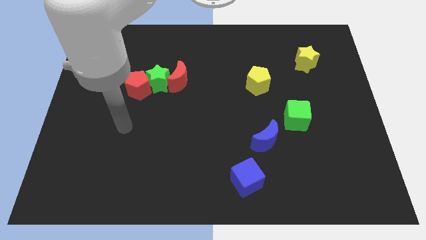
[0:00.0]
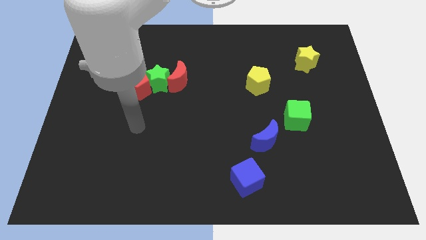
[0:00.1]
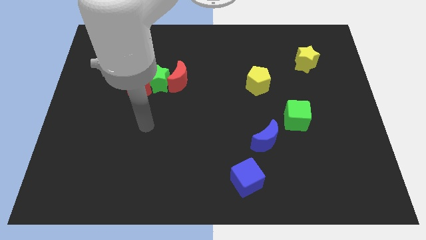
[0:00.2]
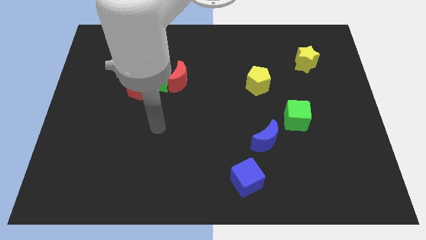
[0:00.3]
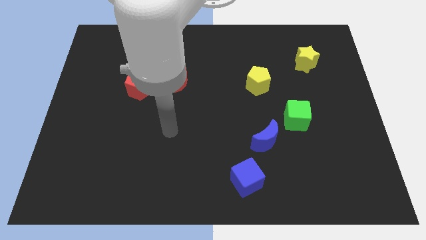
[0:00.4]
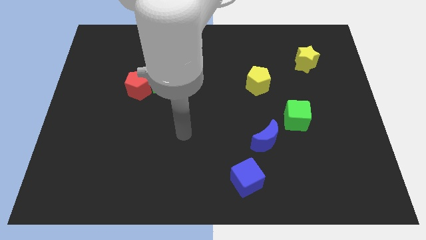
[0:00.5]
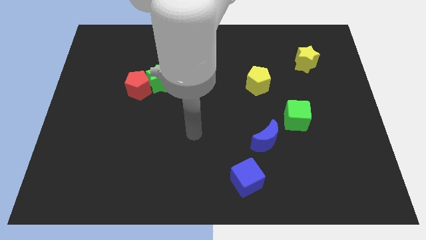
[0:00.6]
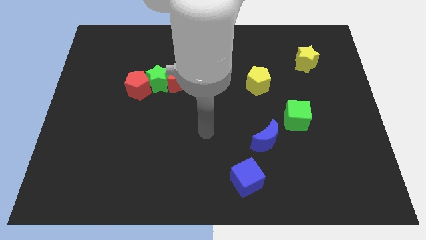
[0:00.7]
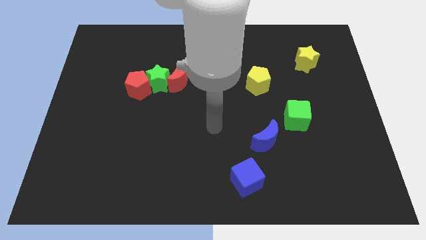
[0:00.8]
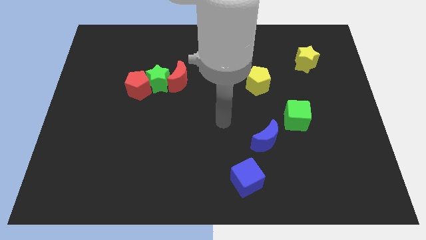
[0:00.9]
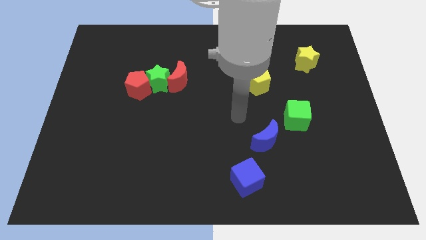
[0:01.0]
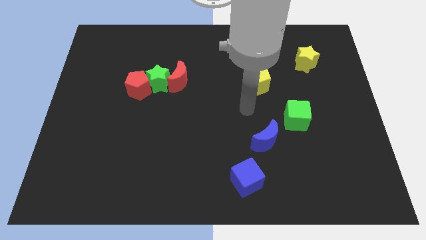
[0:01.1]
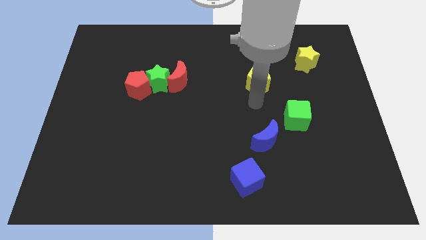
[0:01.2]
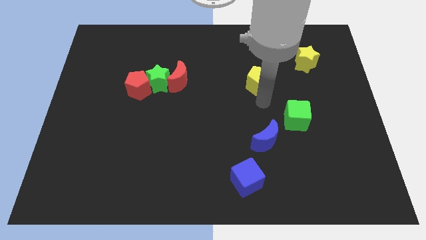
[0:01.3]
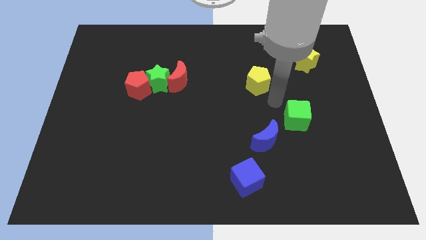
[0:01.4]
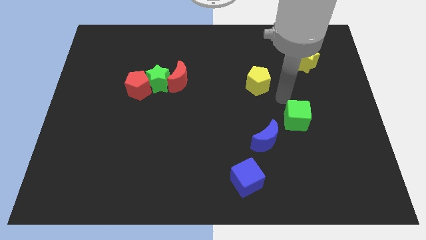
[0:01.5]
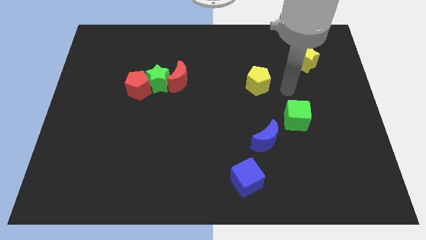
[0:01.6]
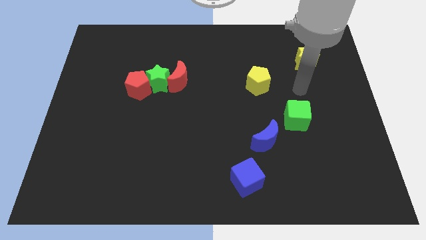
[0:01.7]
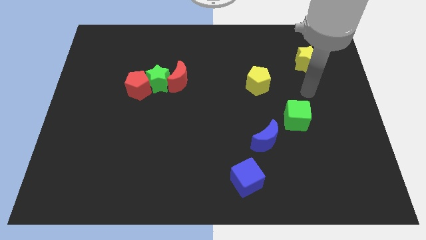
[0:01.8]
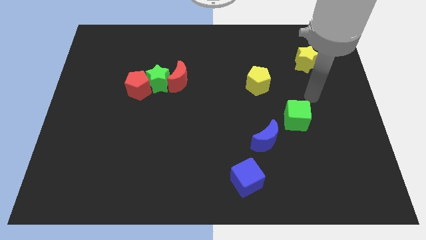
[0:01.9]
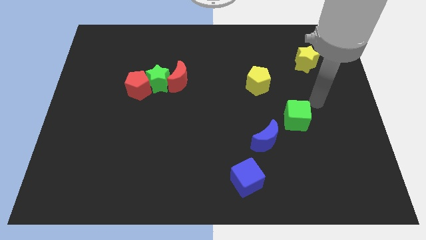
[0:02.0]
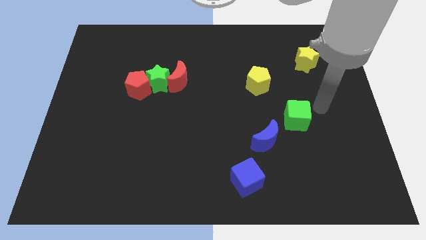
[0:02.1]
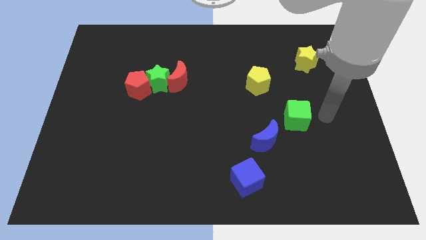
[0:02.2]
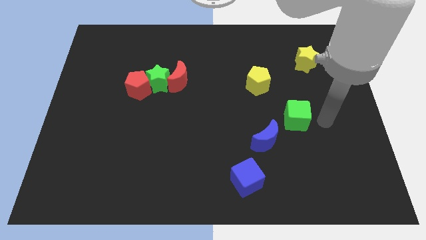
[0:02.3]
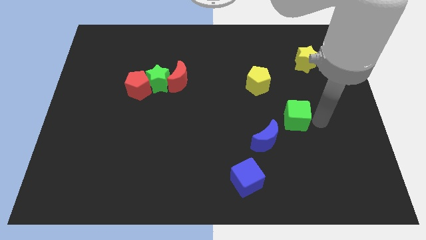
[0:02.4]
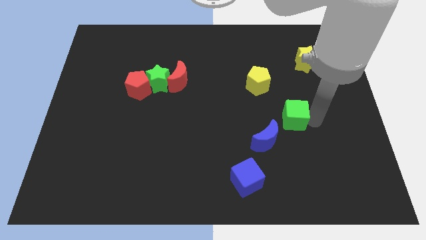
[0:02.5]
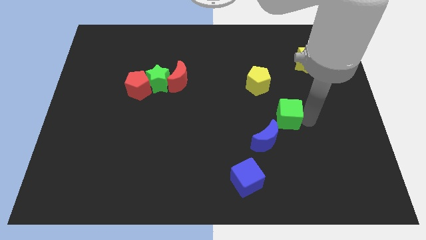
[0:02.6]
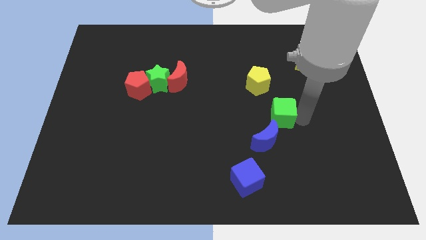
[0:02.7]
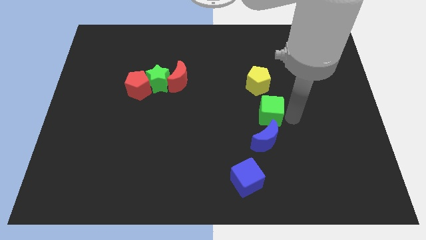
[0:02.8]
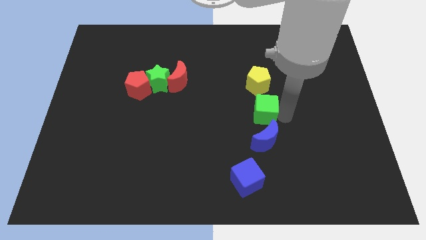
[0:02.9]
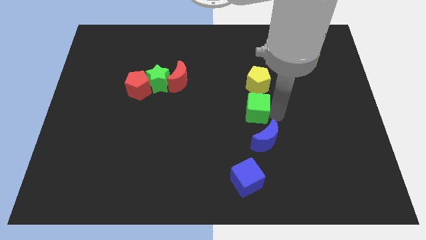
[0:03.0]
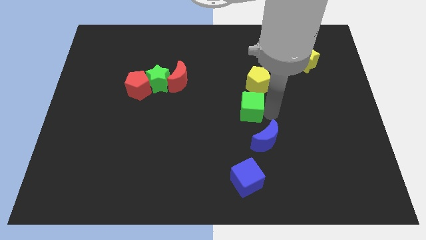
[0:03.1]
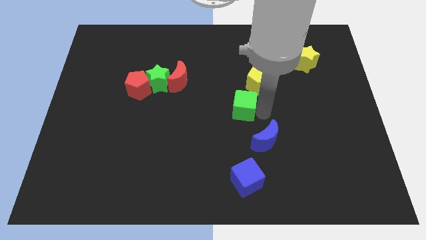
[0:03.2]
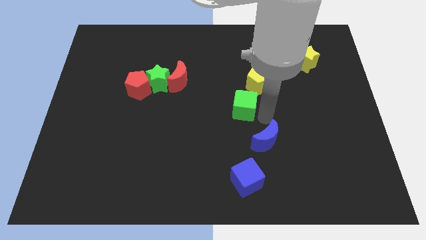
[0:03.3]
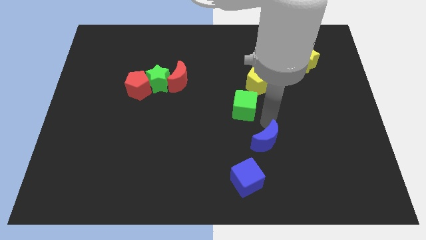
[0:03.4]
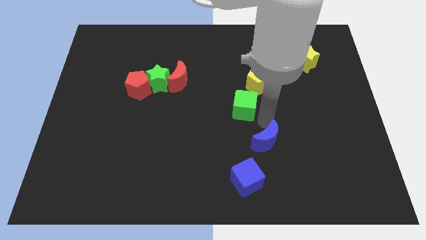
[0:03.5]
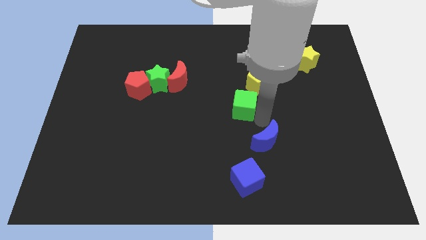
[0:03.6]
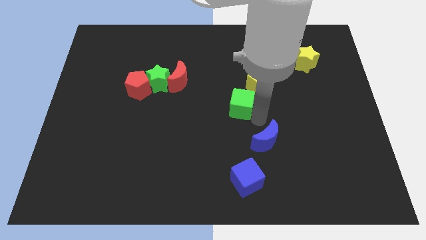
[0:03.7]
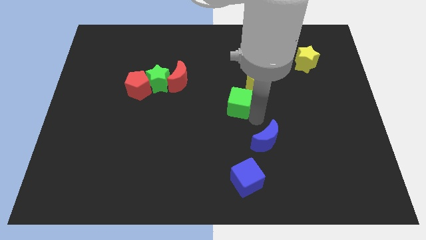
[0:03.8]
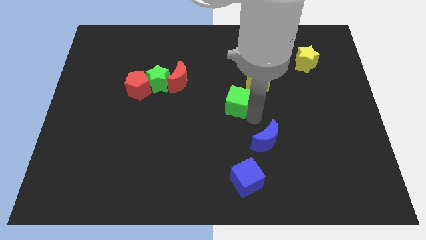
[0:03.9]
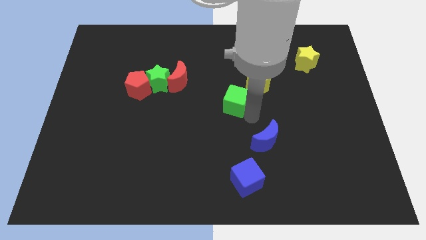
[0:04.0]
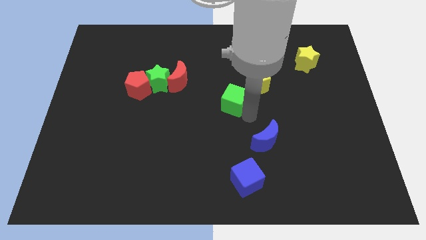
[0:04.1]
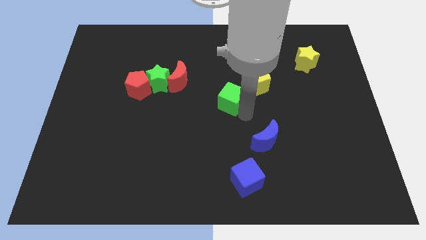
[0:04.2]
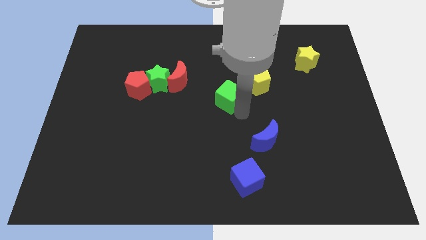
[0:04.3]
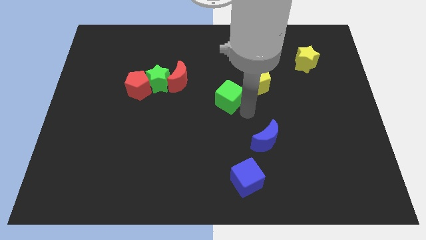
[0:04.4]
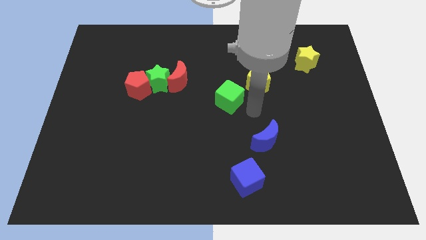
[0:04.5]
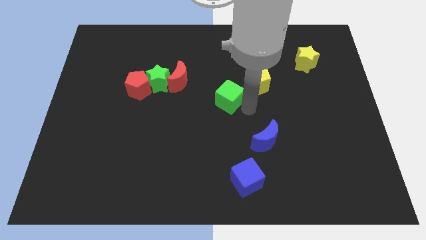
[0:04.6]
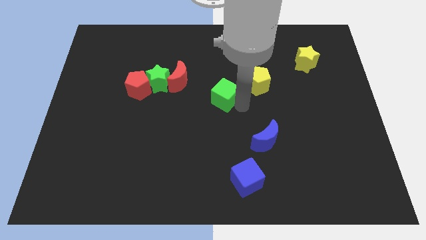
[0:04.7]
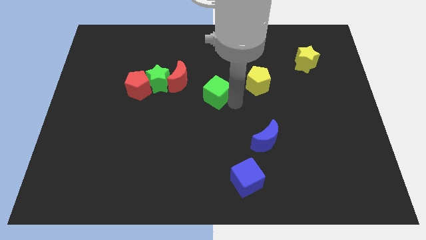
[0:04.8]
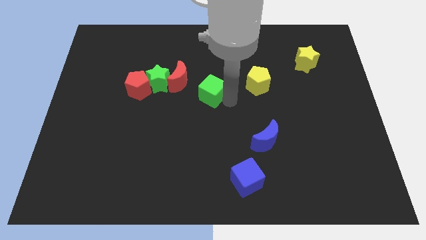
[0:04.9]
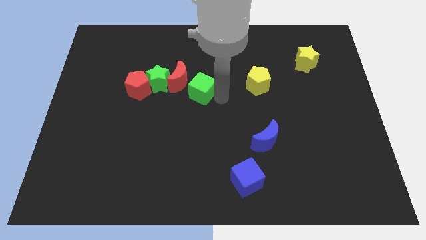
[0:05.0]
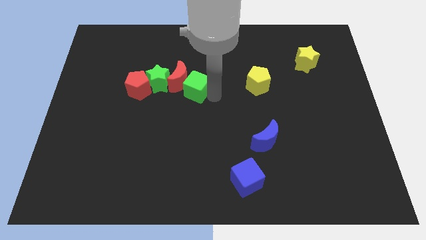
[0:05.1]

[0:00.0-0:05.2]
put the green cube close to the red moon

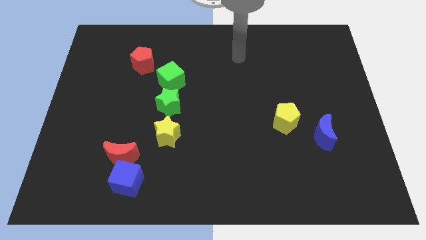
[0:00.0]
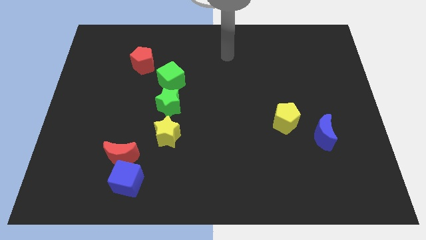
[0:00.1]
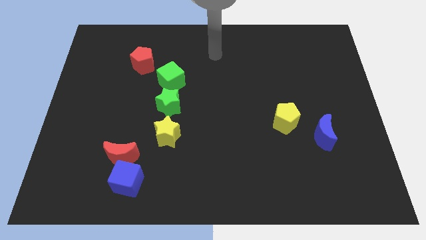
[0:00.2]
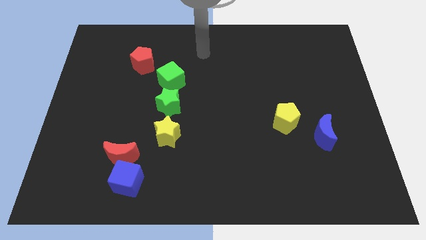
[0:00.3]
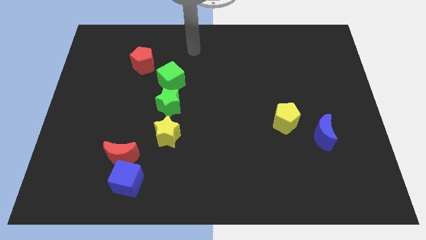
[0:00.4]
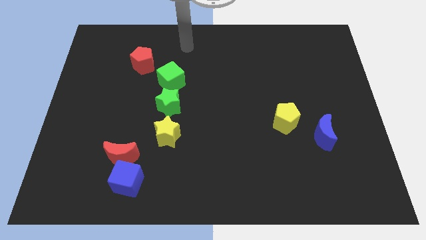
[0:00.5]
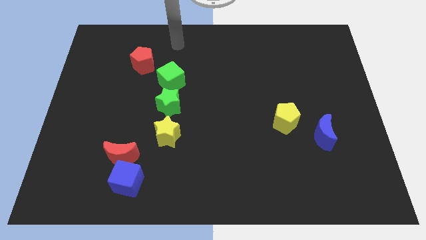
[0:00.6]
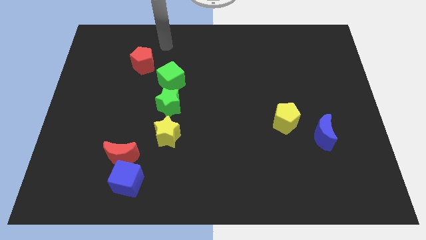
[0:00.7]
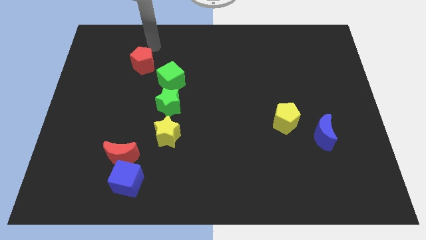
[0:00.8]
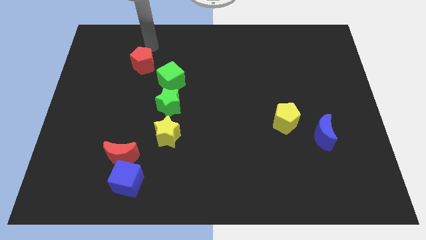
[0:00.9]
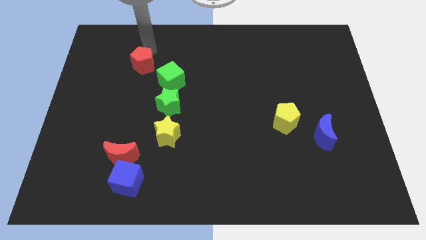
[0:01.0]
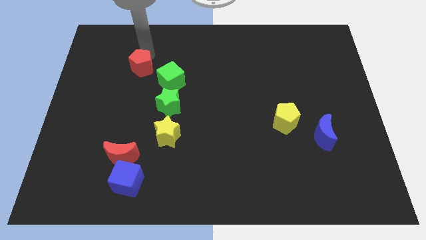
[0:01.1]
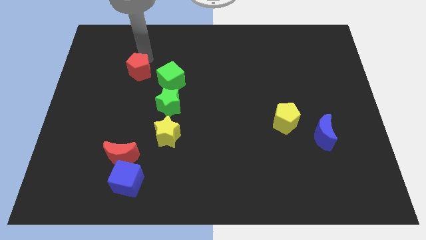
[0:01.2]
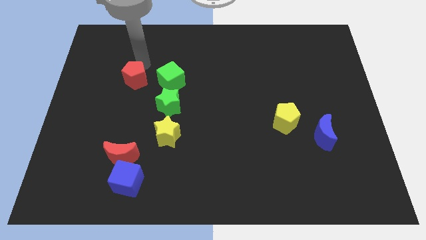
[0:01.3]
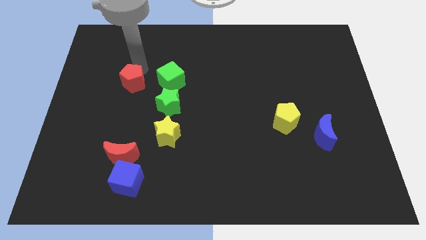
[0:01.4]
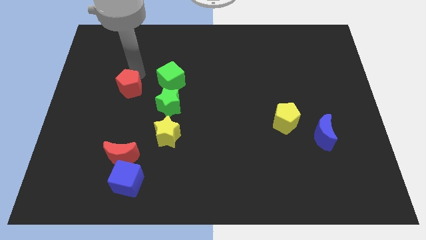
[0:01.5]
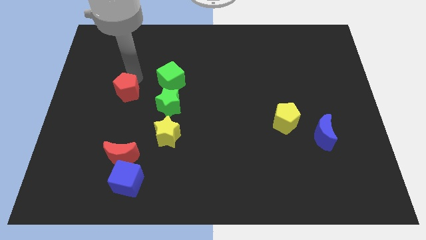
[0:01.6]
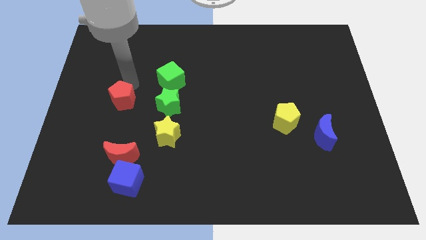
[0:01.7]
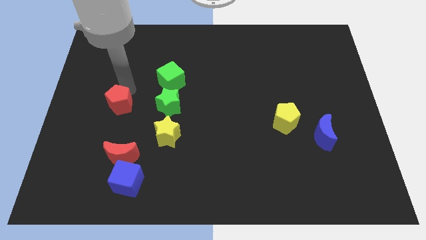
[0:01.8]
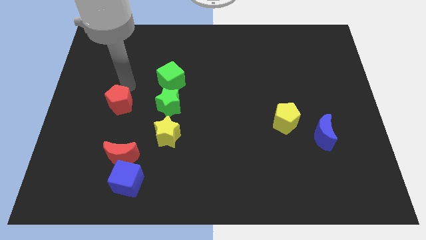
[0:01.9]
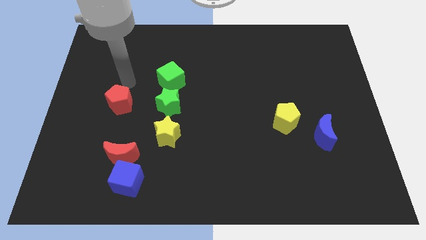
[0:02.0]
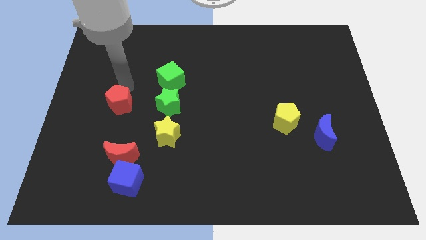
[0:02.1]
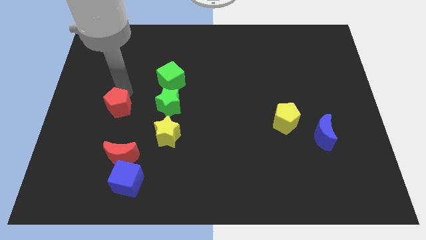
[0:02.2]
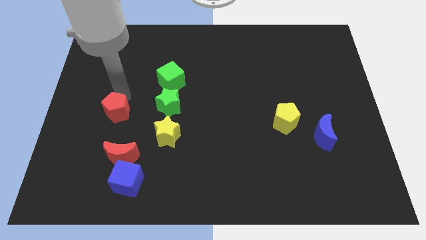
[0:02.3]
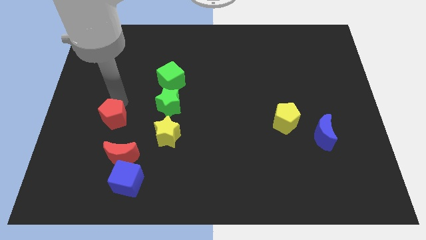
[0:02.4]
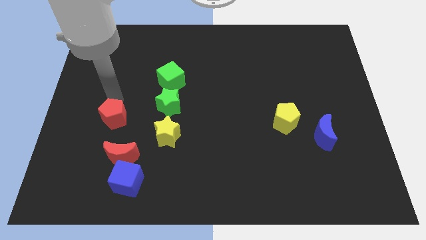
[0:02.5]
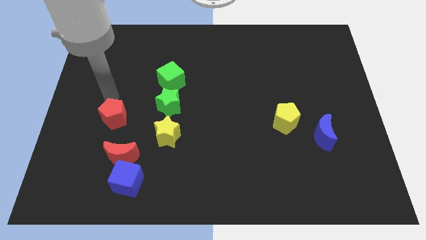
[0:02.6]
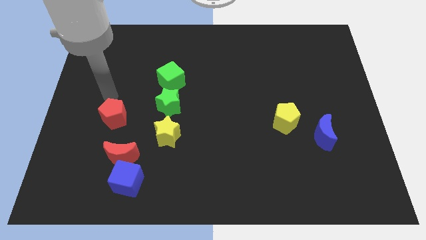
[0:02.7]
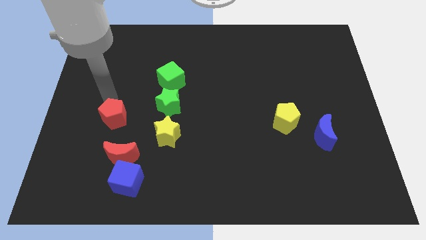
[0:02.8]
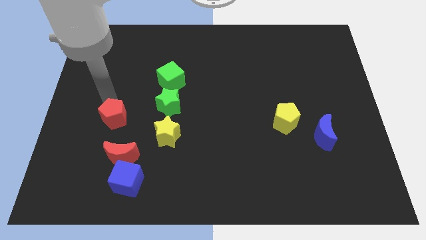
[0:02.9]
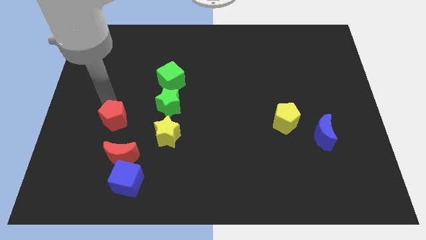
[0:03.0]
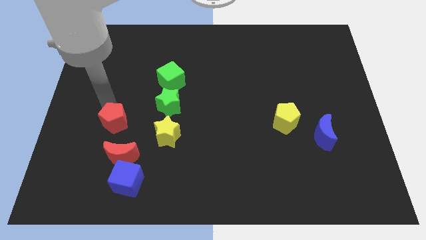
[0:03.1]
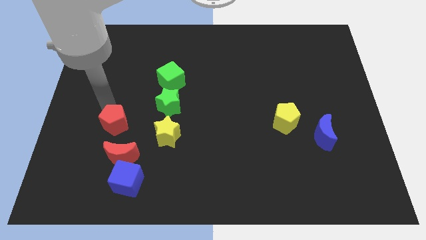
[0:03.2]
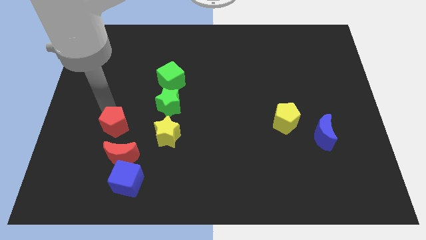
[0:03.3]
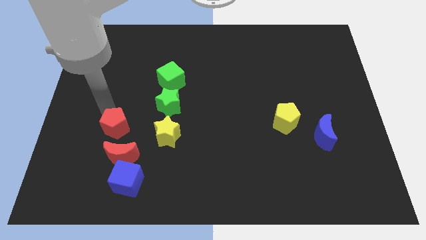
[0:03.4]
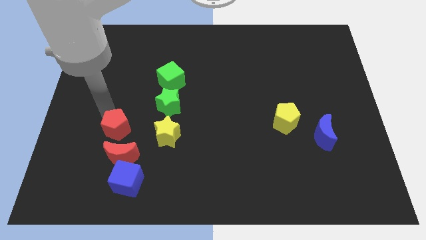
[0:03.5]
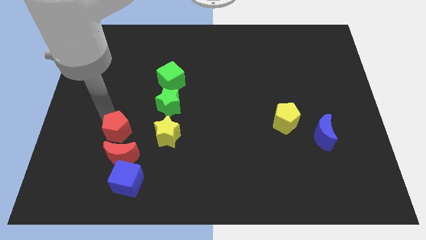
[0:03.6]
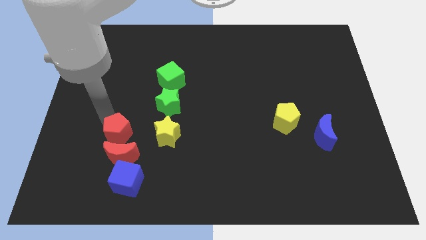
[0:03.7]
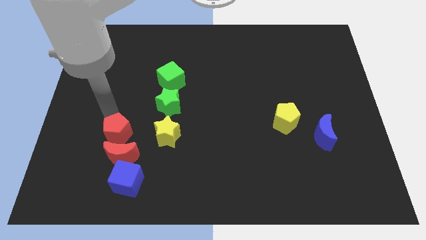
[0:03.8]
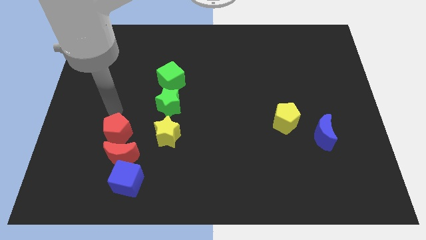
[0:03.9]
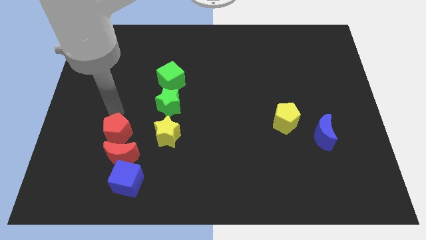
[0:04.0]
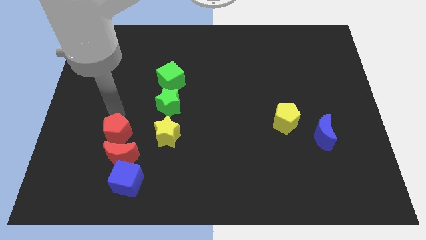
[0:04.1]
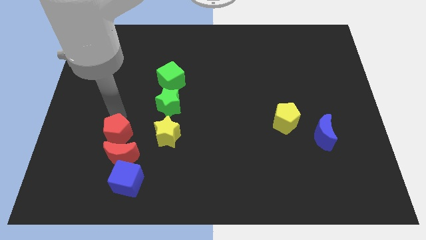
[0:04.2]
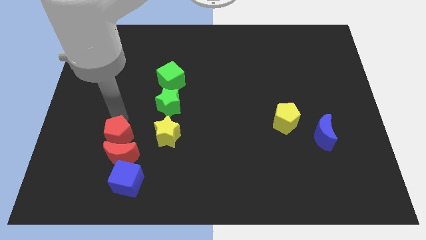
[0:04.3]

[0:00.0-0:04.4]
slide the red pentagon to the red moon
